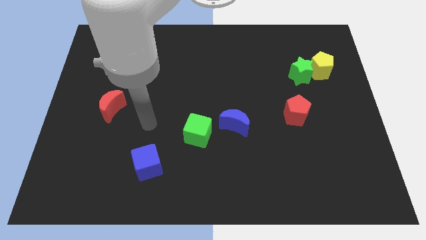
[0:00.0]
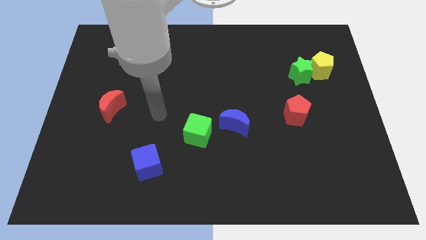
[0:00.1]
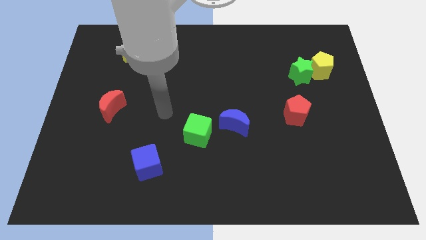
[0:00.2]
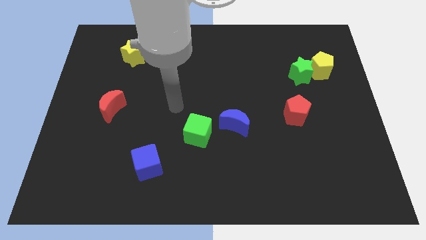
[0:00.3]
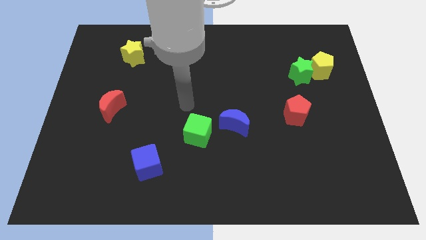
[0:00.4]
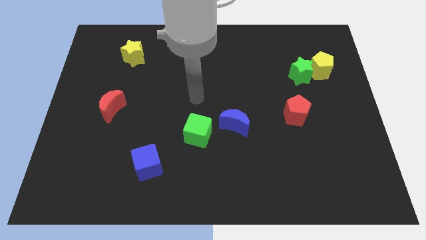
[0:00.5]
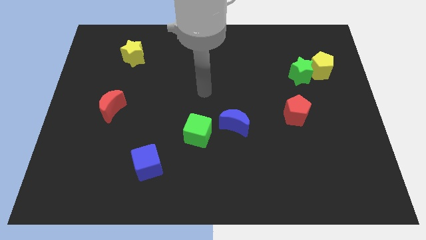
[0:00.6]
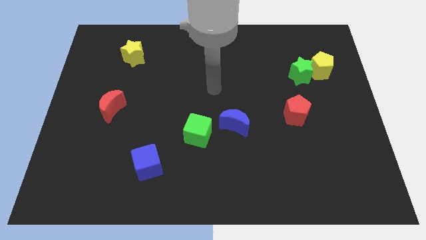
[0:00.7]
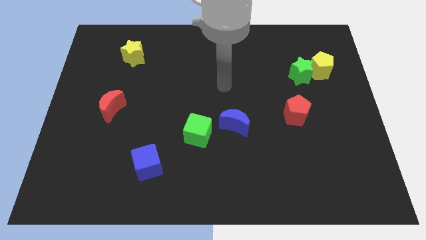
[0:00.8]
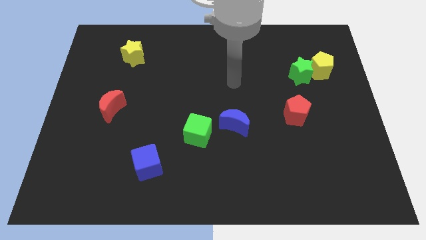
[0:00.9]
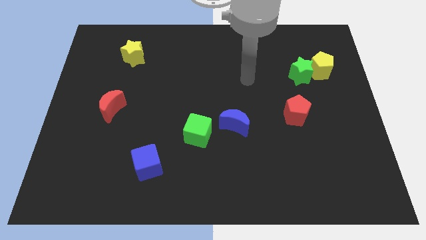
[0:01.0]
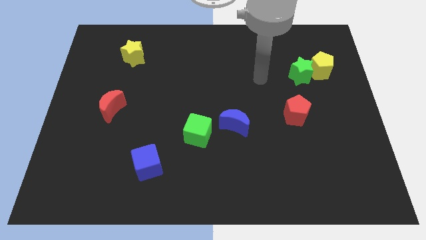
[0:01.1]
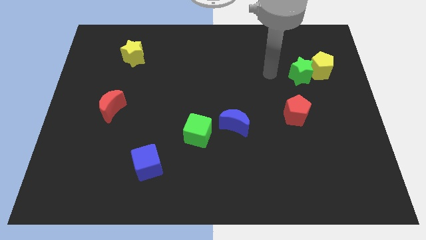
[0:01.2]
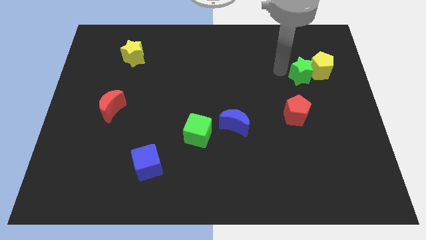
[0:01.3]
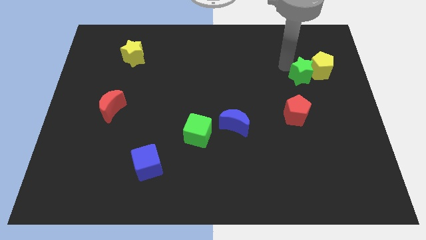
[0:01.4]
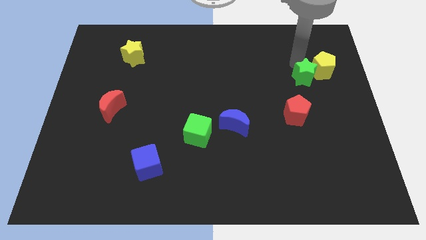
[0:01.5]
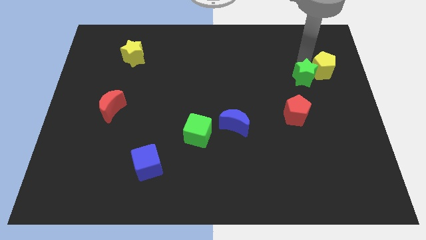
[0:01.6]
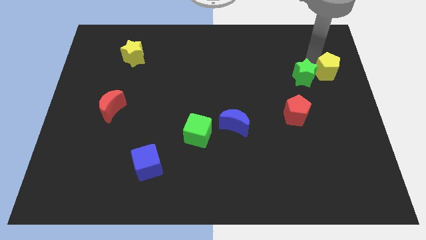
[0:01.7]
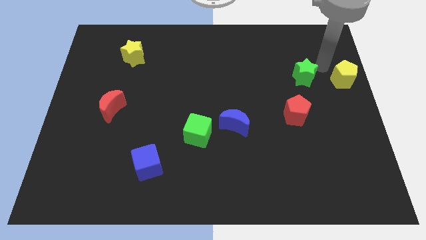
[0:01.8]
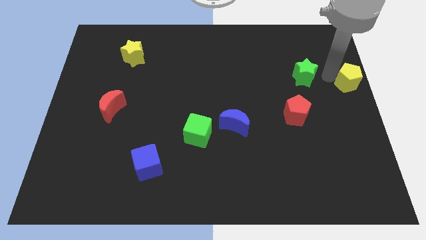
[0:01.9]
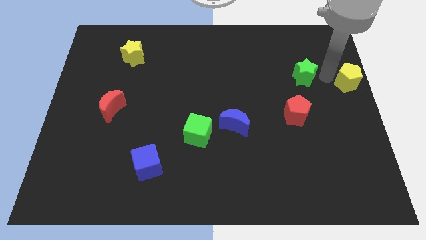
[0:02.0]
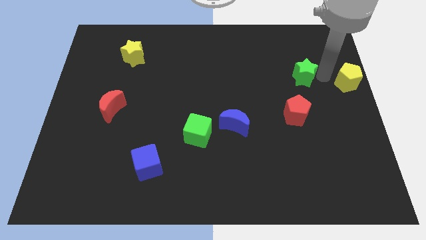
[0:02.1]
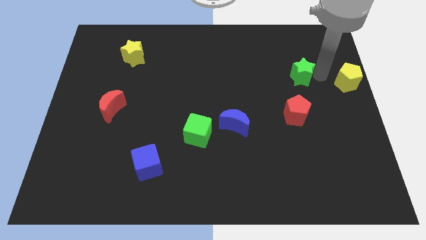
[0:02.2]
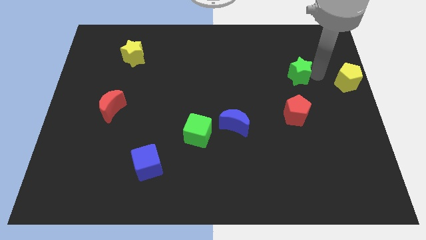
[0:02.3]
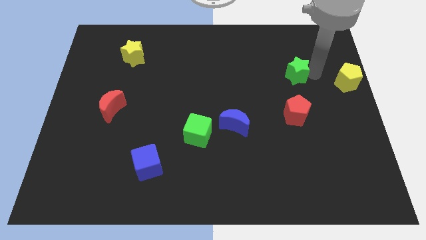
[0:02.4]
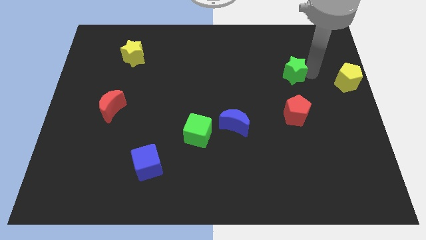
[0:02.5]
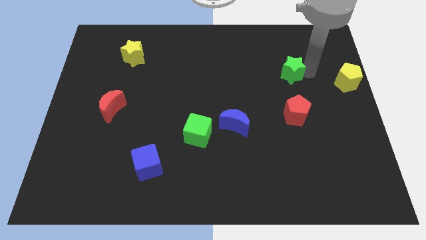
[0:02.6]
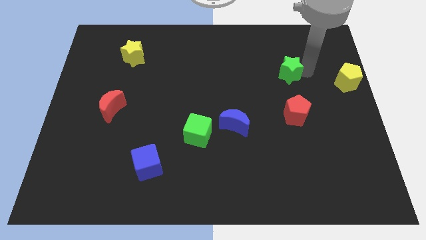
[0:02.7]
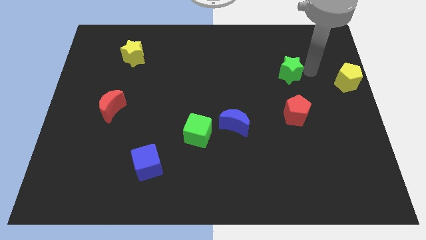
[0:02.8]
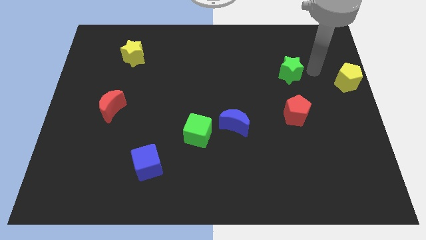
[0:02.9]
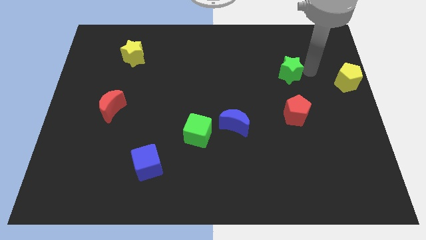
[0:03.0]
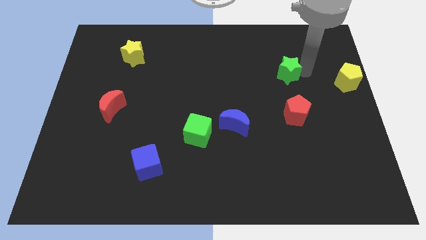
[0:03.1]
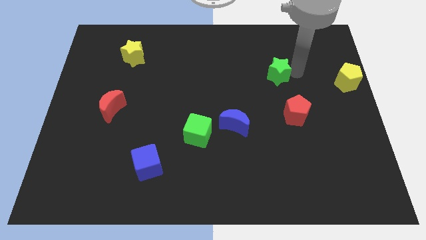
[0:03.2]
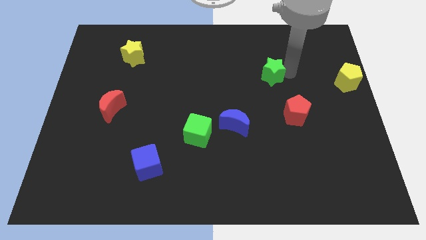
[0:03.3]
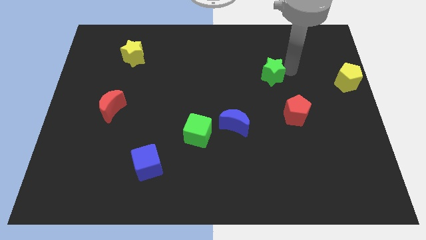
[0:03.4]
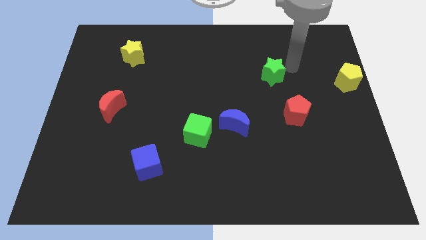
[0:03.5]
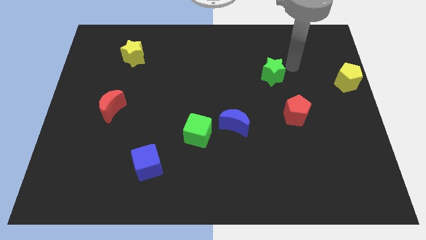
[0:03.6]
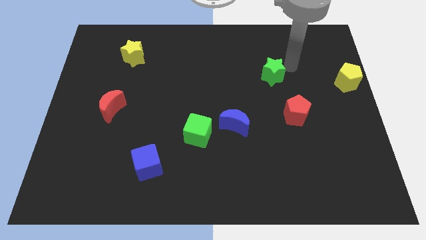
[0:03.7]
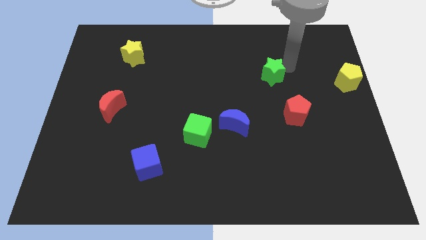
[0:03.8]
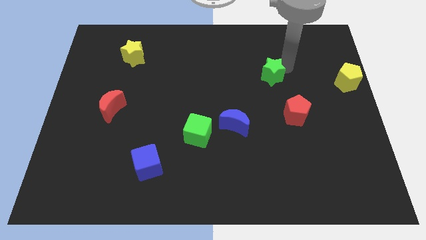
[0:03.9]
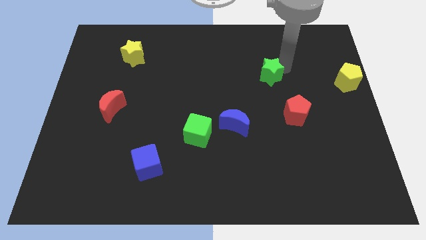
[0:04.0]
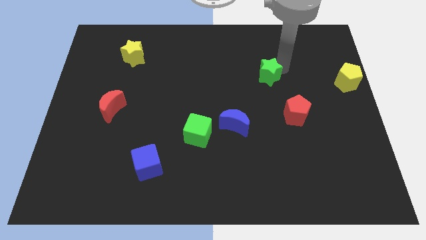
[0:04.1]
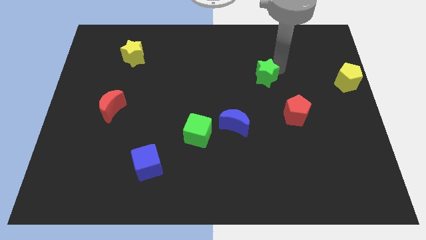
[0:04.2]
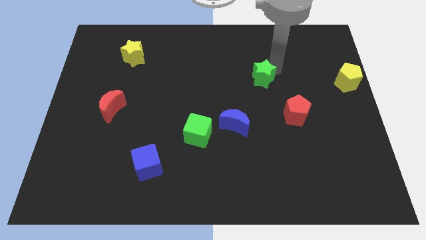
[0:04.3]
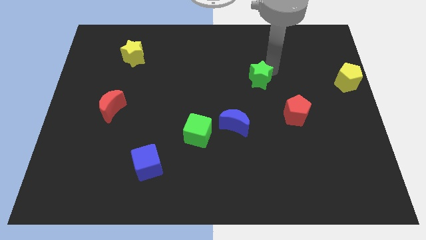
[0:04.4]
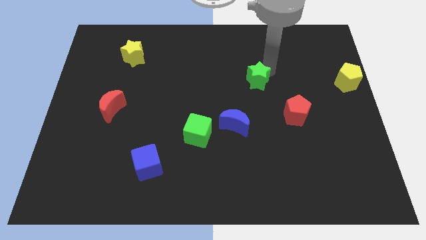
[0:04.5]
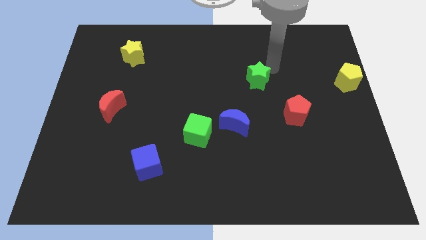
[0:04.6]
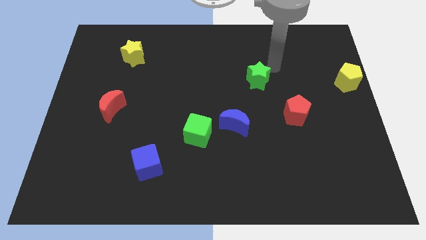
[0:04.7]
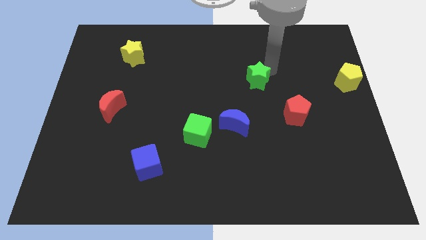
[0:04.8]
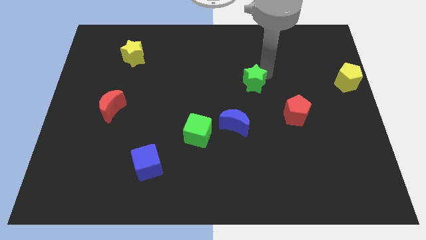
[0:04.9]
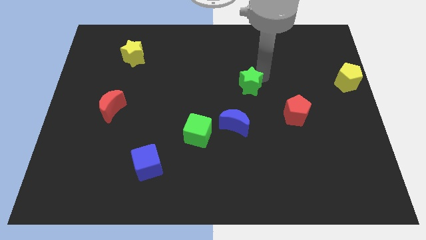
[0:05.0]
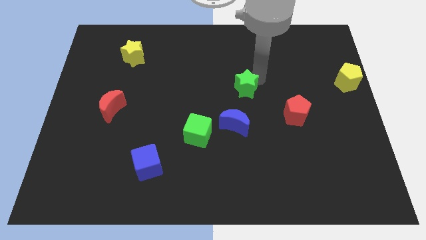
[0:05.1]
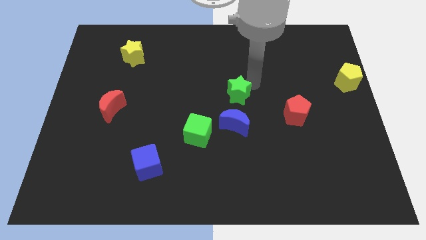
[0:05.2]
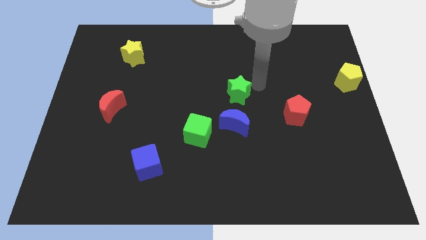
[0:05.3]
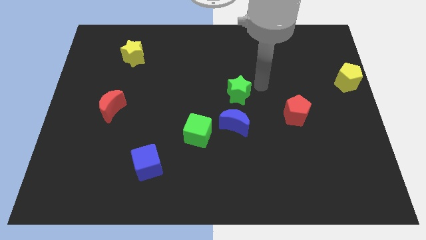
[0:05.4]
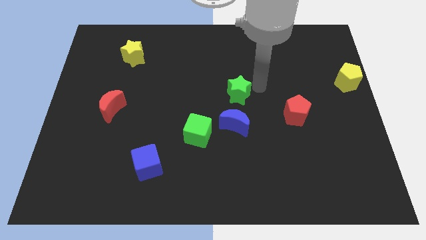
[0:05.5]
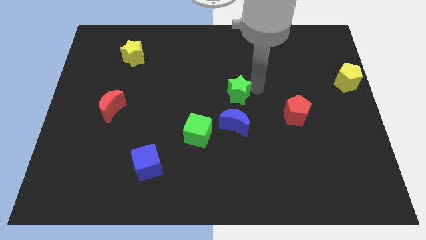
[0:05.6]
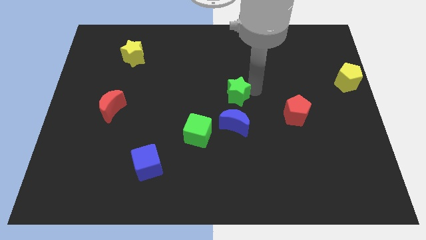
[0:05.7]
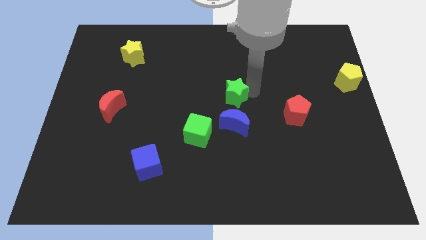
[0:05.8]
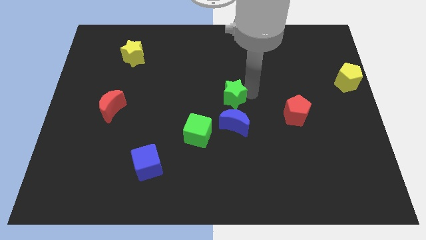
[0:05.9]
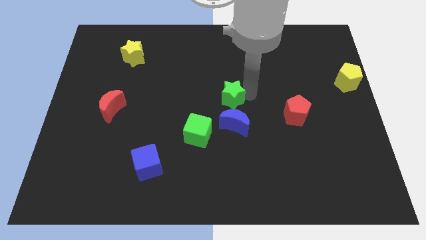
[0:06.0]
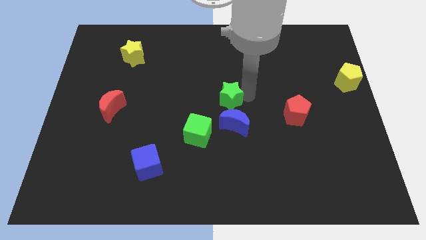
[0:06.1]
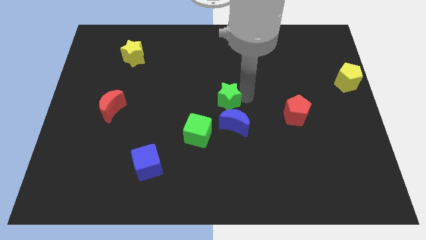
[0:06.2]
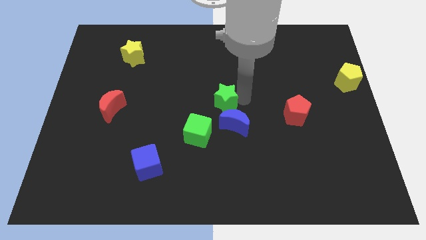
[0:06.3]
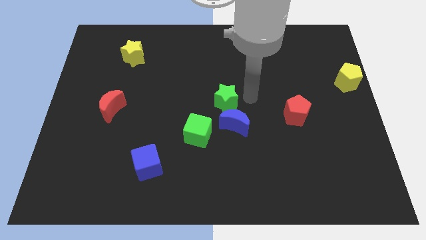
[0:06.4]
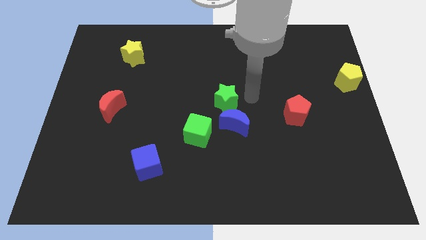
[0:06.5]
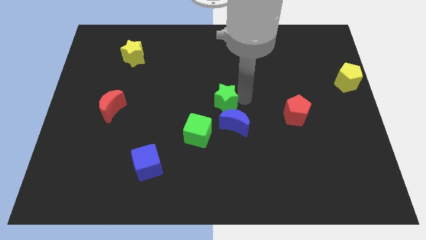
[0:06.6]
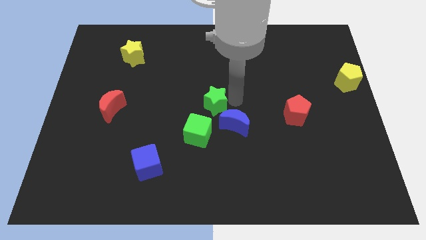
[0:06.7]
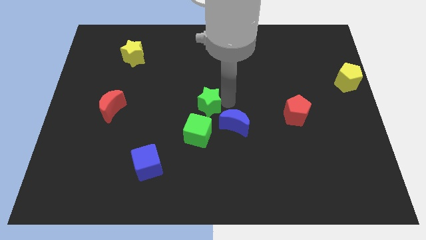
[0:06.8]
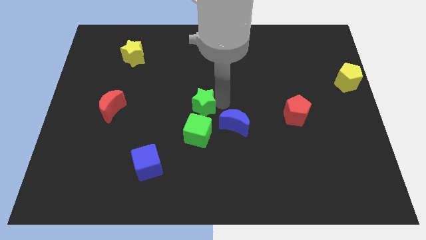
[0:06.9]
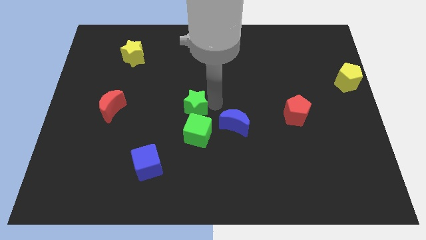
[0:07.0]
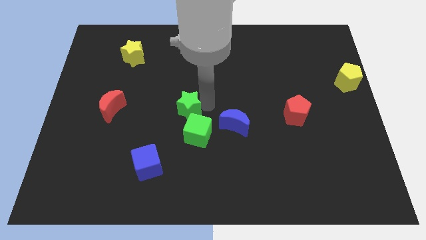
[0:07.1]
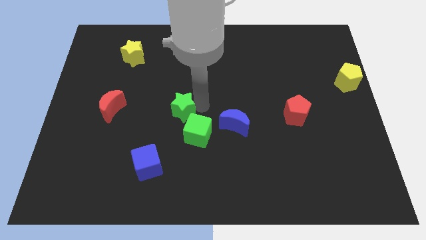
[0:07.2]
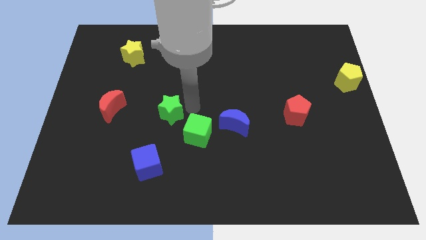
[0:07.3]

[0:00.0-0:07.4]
put the green star to the top of the blue cube
